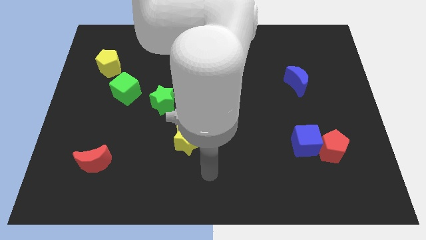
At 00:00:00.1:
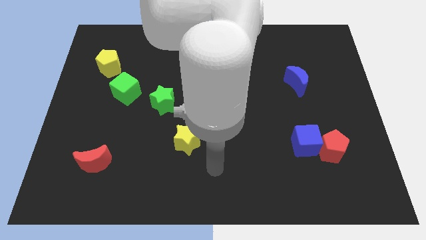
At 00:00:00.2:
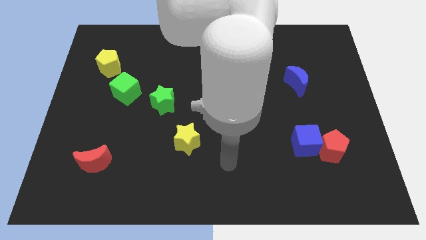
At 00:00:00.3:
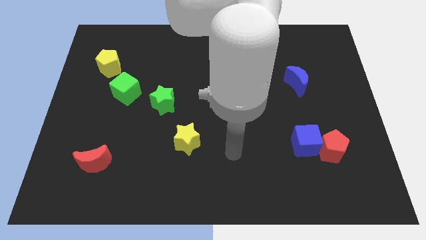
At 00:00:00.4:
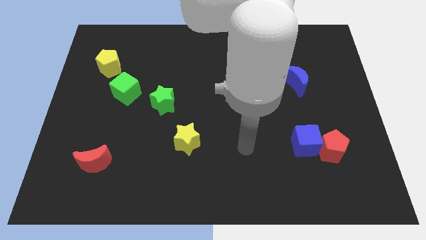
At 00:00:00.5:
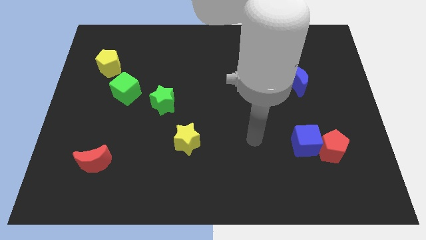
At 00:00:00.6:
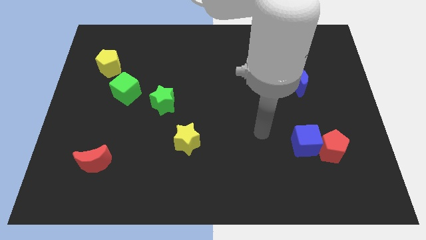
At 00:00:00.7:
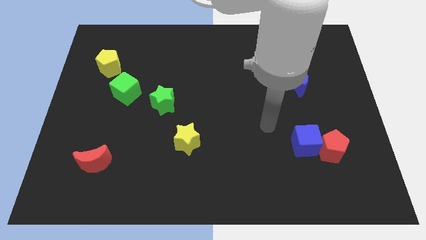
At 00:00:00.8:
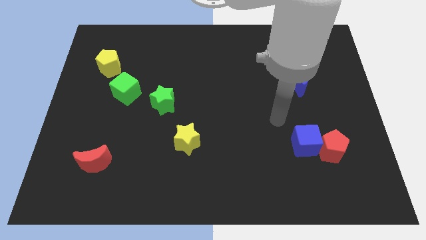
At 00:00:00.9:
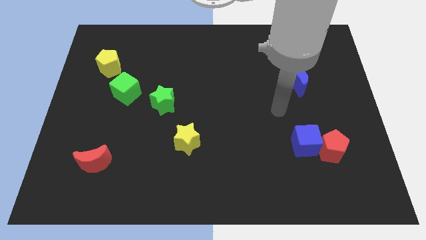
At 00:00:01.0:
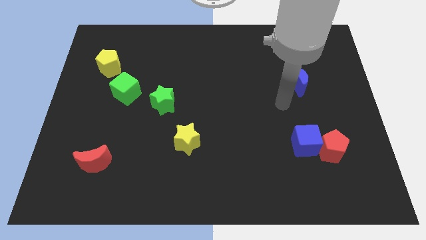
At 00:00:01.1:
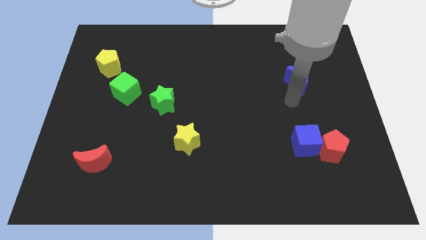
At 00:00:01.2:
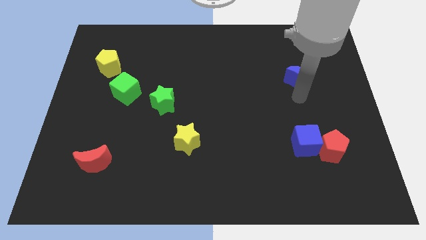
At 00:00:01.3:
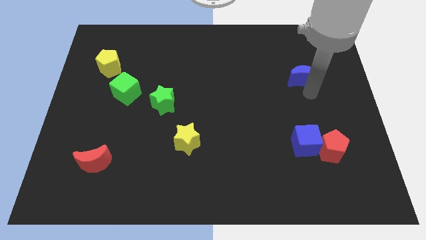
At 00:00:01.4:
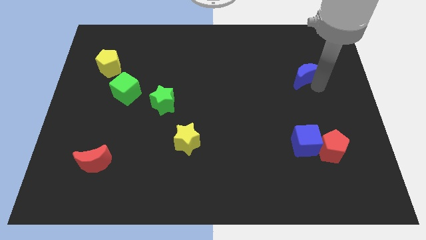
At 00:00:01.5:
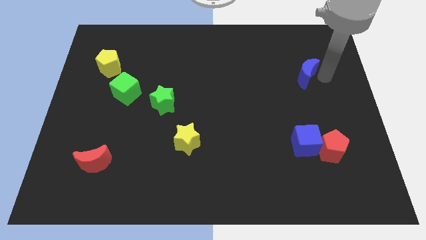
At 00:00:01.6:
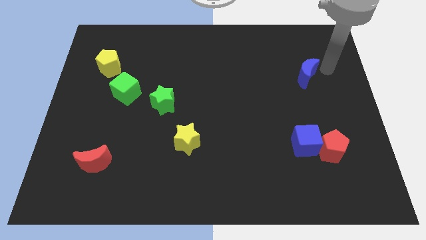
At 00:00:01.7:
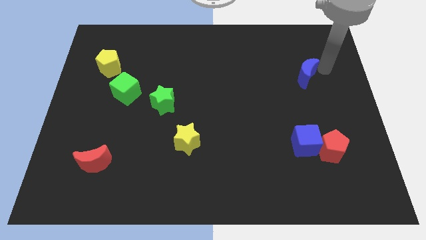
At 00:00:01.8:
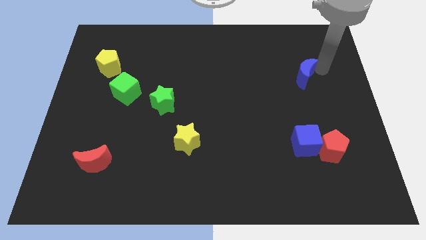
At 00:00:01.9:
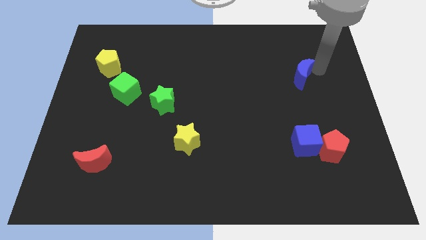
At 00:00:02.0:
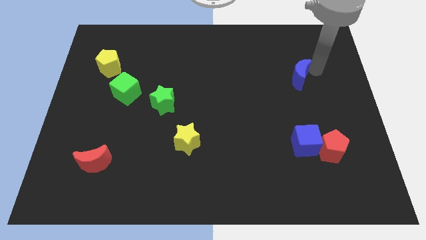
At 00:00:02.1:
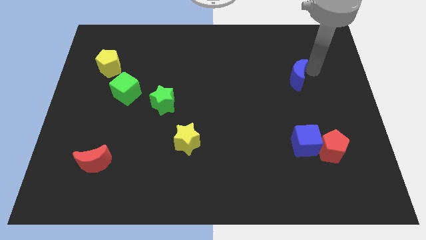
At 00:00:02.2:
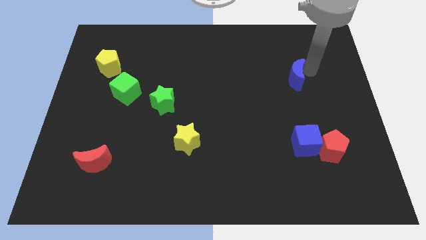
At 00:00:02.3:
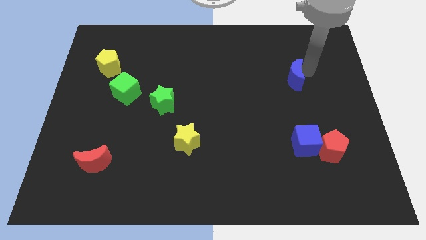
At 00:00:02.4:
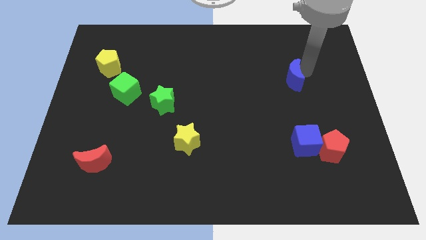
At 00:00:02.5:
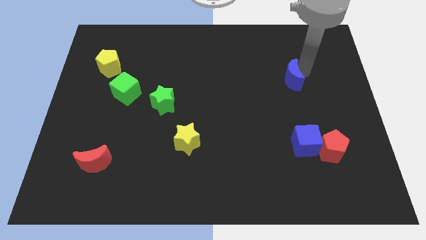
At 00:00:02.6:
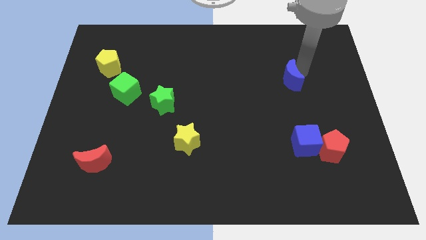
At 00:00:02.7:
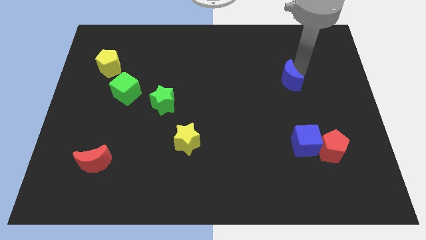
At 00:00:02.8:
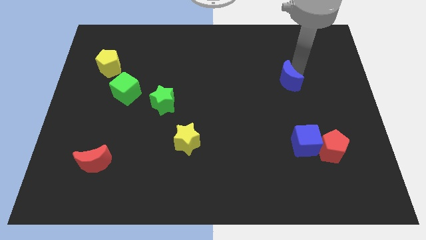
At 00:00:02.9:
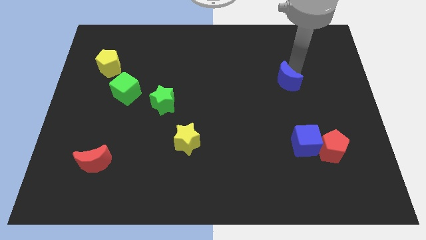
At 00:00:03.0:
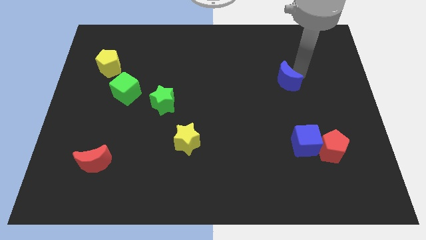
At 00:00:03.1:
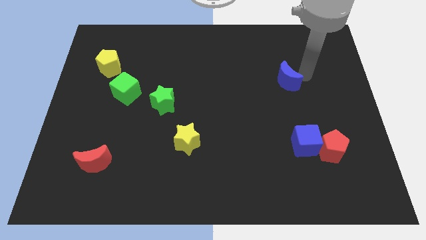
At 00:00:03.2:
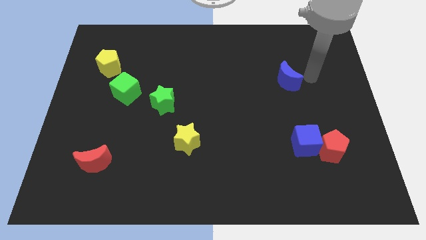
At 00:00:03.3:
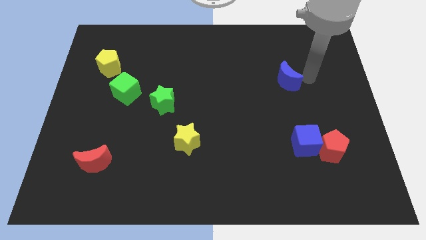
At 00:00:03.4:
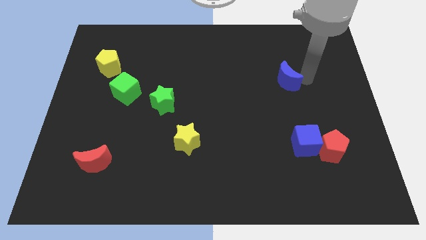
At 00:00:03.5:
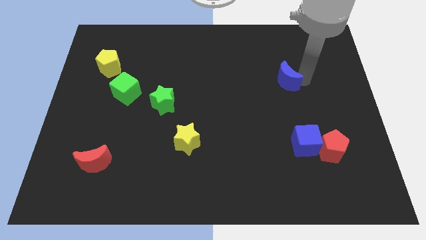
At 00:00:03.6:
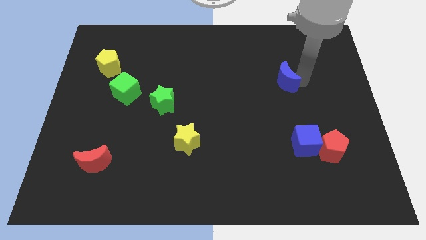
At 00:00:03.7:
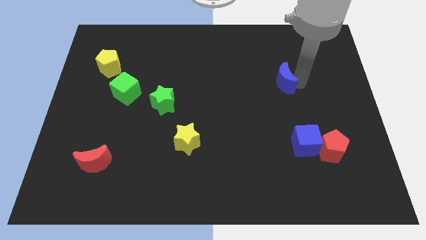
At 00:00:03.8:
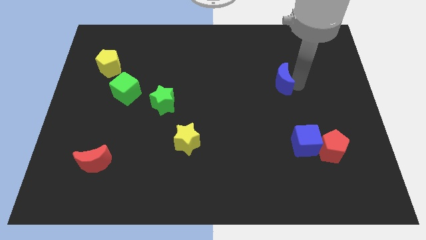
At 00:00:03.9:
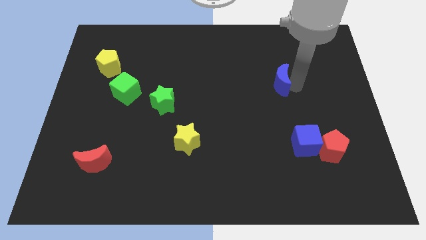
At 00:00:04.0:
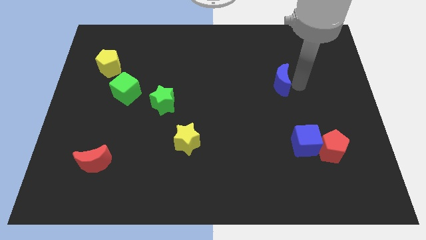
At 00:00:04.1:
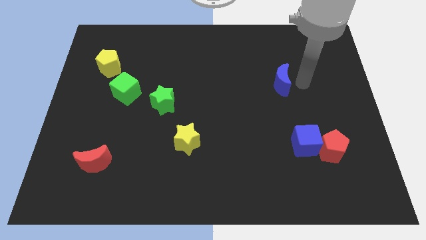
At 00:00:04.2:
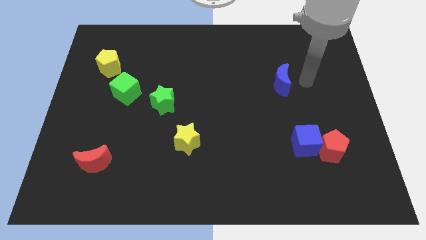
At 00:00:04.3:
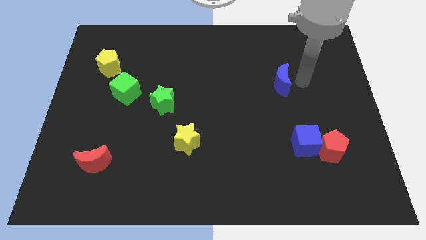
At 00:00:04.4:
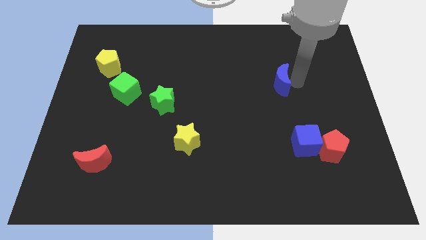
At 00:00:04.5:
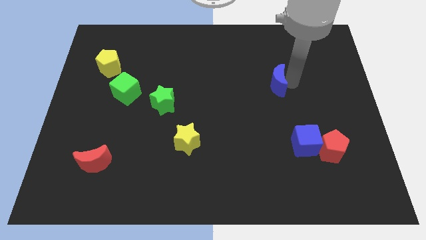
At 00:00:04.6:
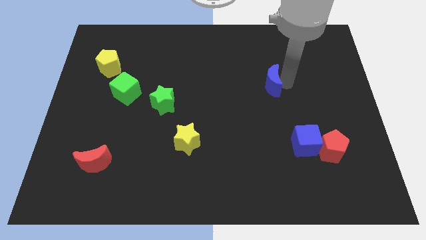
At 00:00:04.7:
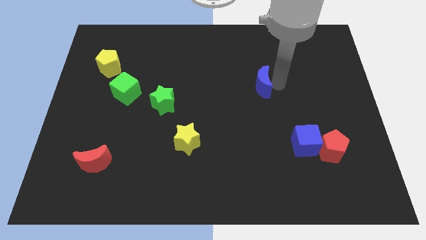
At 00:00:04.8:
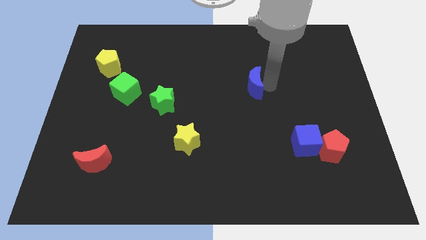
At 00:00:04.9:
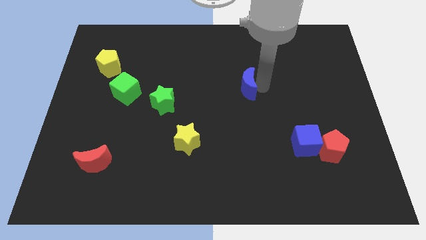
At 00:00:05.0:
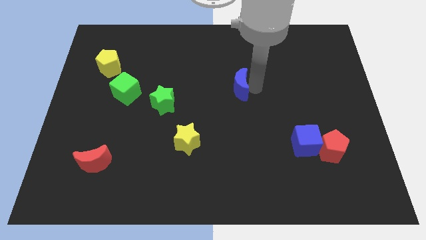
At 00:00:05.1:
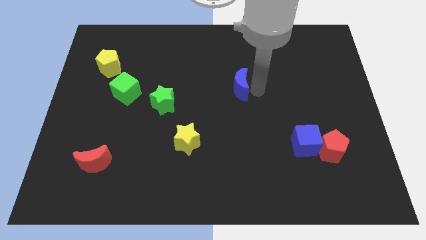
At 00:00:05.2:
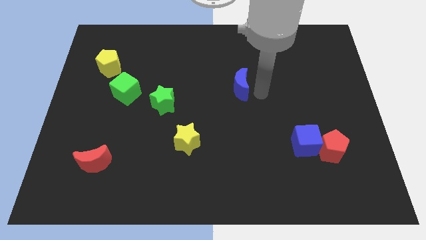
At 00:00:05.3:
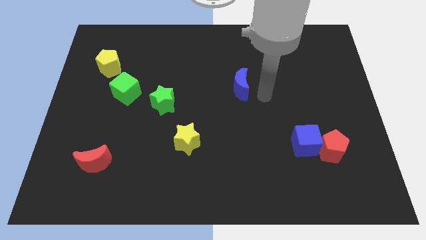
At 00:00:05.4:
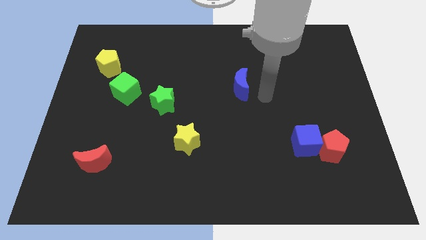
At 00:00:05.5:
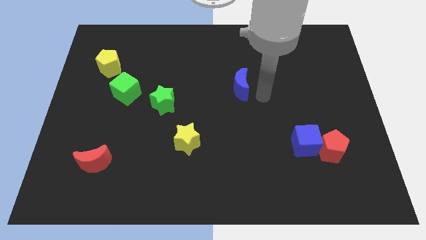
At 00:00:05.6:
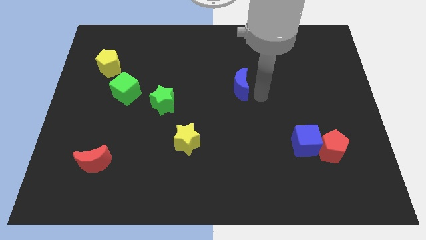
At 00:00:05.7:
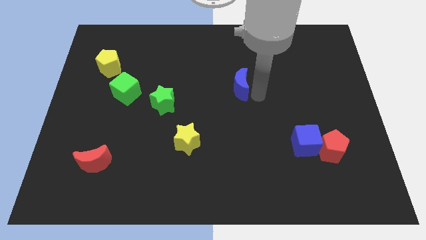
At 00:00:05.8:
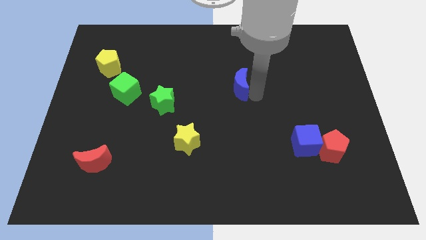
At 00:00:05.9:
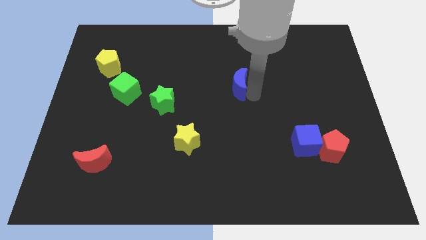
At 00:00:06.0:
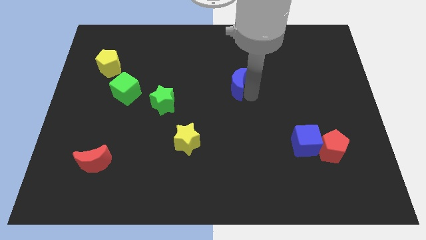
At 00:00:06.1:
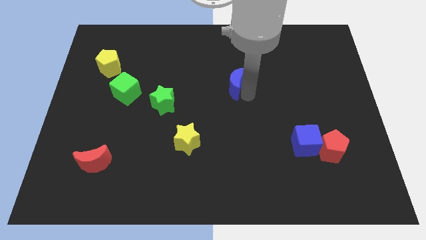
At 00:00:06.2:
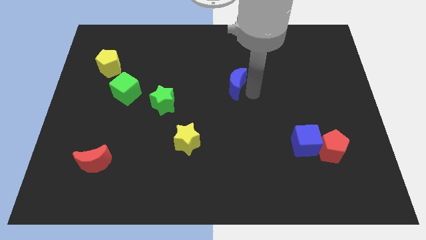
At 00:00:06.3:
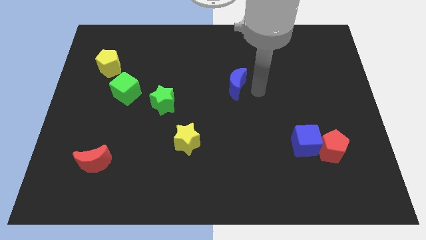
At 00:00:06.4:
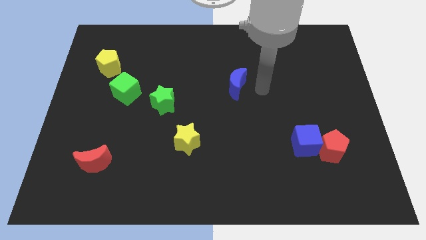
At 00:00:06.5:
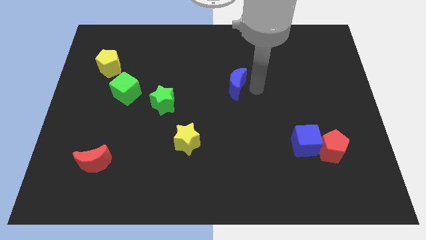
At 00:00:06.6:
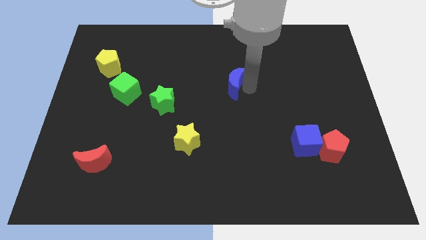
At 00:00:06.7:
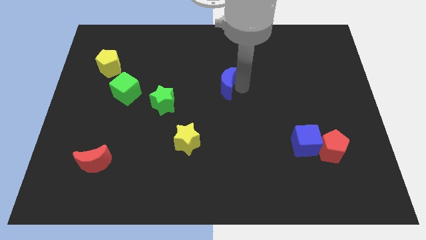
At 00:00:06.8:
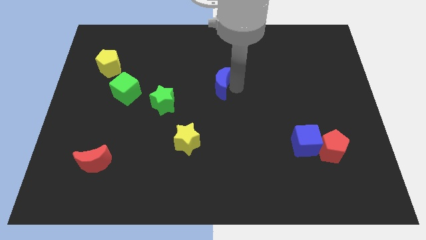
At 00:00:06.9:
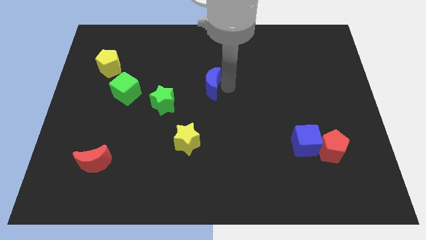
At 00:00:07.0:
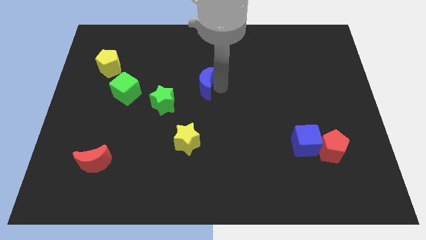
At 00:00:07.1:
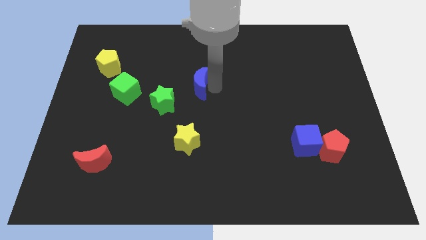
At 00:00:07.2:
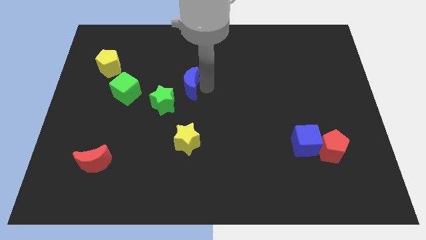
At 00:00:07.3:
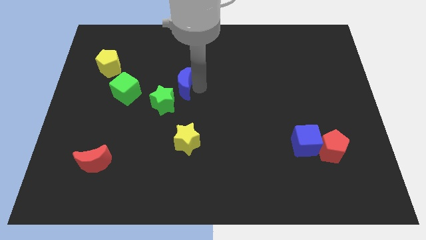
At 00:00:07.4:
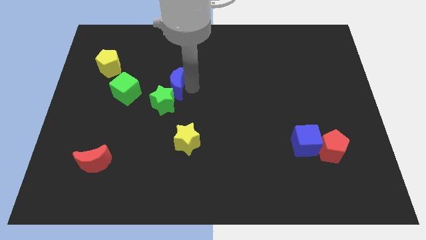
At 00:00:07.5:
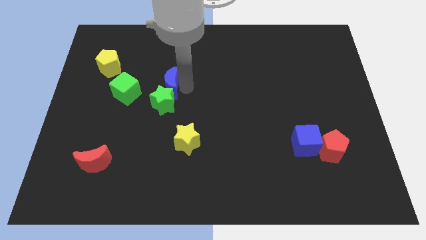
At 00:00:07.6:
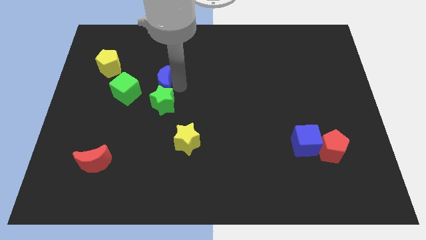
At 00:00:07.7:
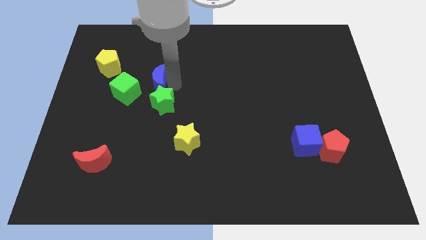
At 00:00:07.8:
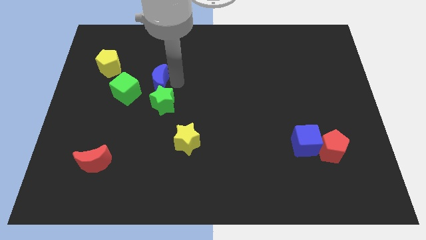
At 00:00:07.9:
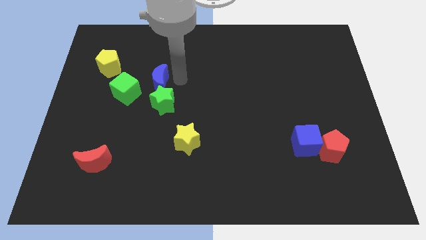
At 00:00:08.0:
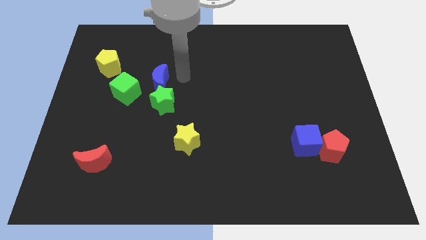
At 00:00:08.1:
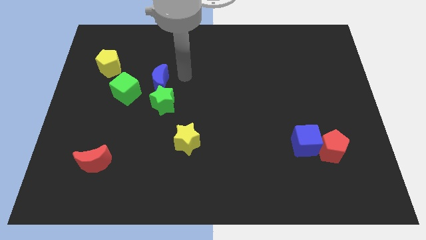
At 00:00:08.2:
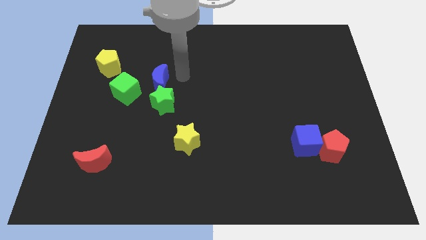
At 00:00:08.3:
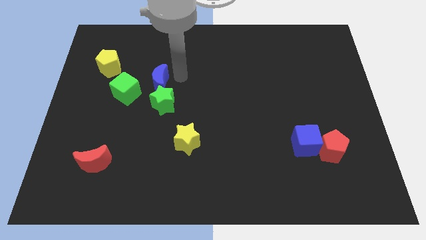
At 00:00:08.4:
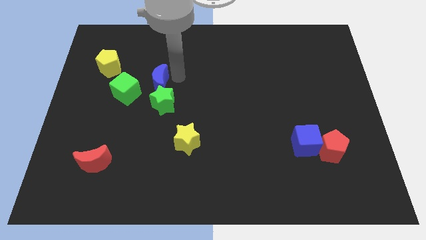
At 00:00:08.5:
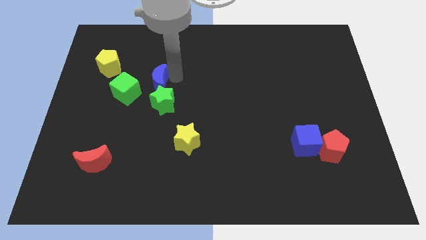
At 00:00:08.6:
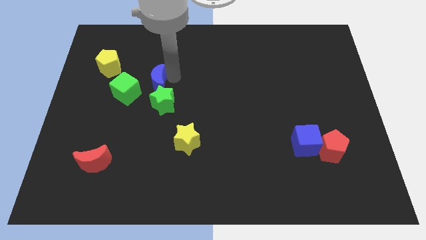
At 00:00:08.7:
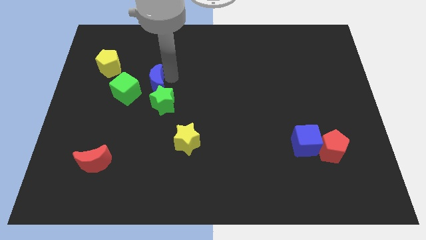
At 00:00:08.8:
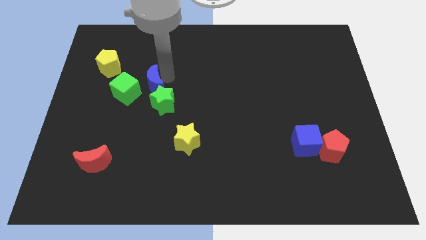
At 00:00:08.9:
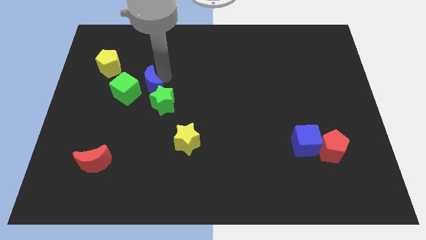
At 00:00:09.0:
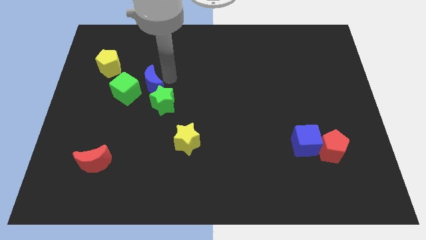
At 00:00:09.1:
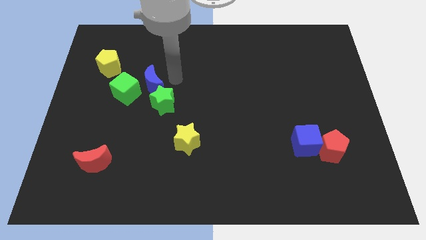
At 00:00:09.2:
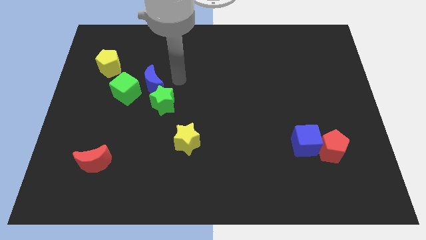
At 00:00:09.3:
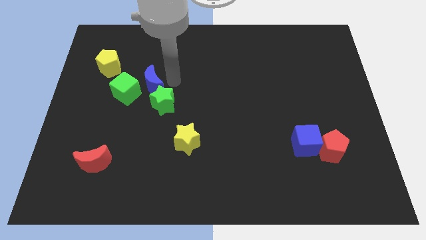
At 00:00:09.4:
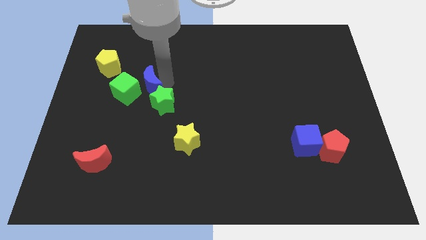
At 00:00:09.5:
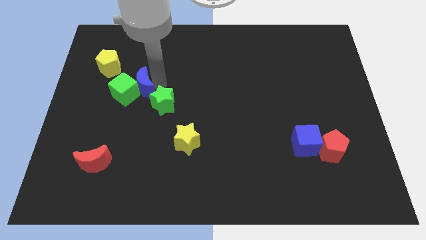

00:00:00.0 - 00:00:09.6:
put the blue moon next to the green cube
